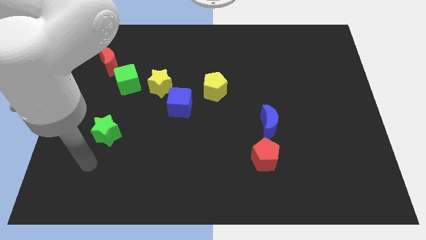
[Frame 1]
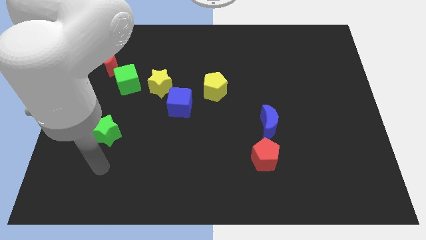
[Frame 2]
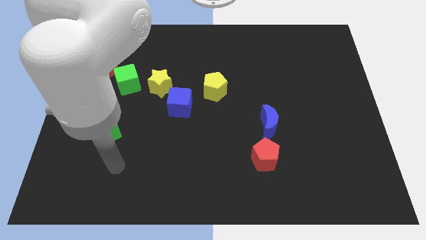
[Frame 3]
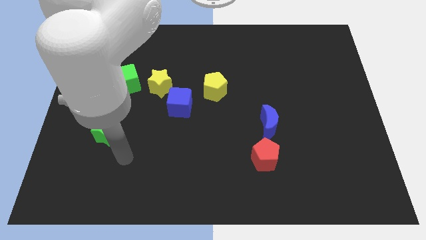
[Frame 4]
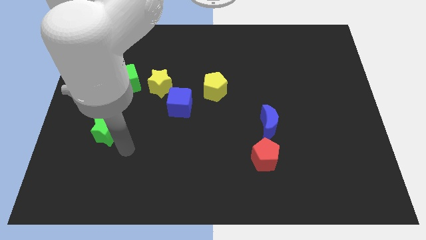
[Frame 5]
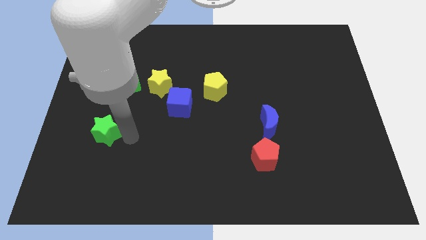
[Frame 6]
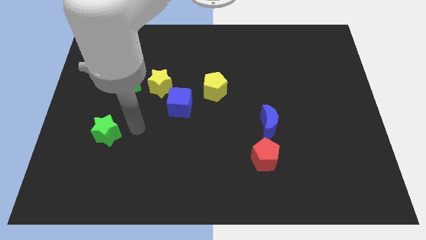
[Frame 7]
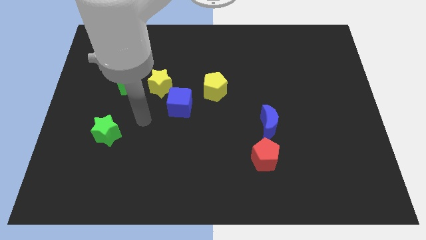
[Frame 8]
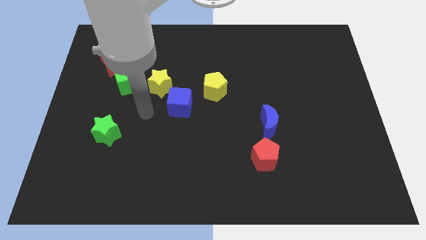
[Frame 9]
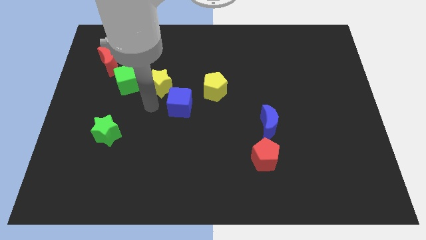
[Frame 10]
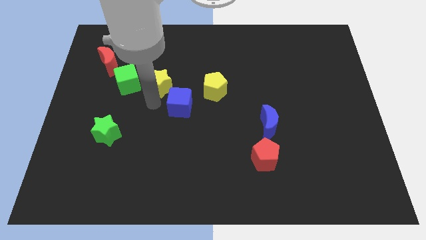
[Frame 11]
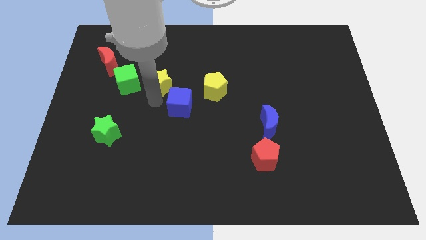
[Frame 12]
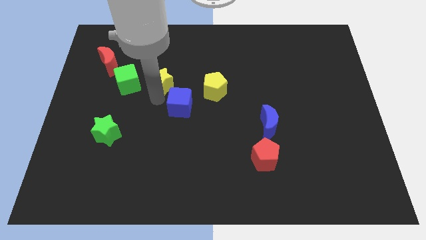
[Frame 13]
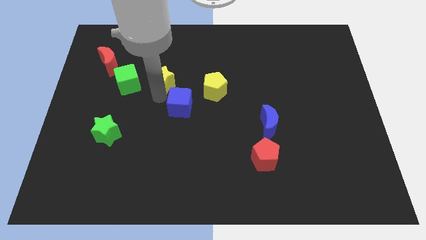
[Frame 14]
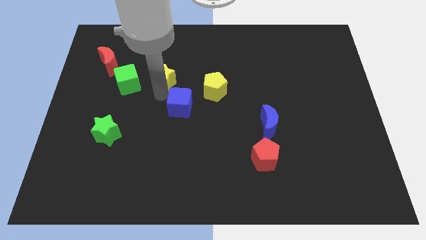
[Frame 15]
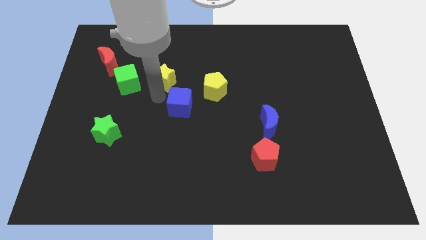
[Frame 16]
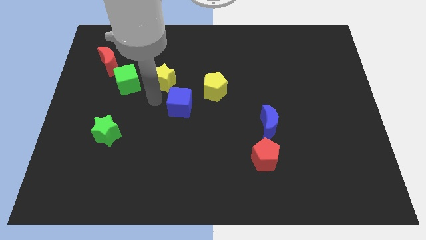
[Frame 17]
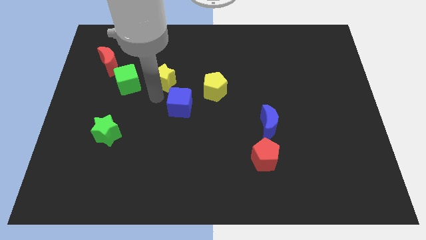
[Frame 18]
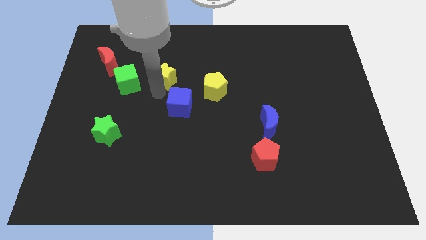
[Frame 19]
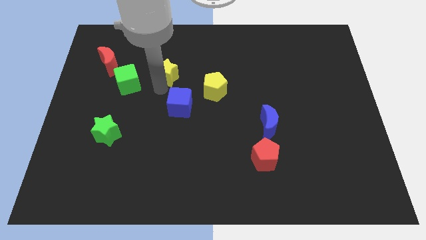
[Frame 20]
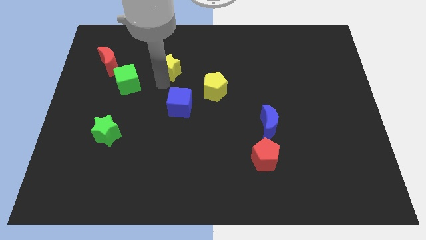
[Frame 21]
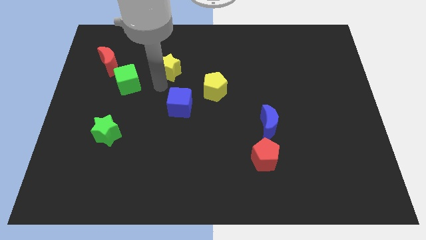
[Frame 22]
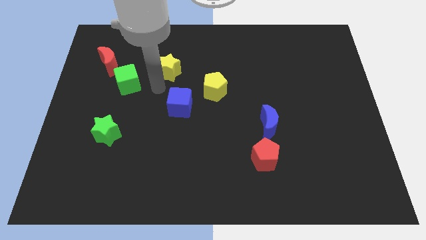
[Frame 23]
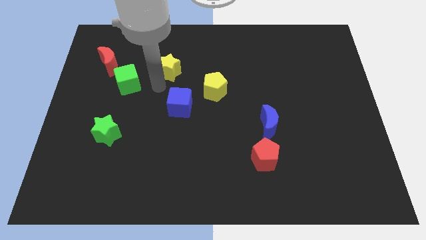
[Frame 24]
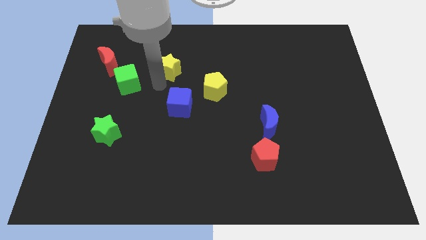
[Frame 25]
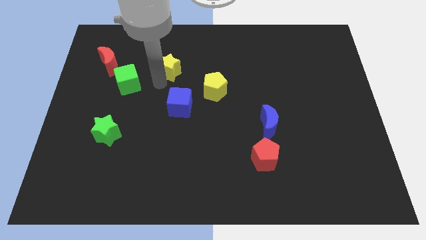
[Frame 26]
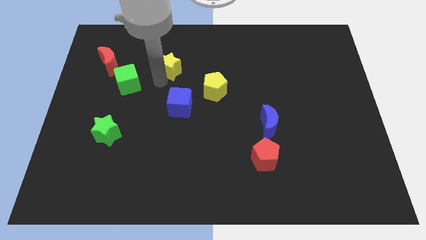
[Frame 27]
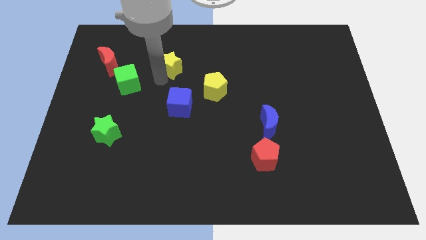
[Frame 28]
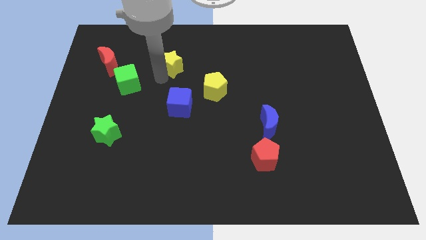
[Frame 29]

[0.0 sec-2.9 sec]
separate the yellow star from the blue cube and green cube

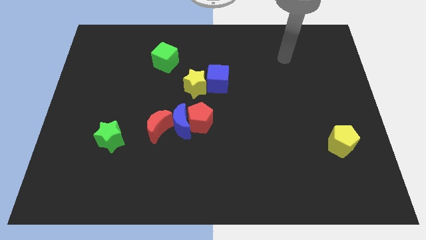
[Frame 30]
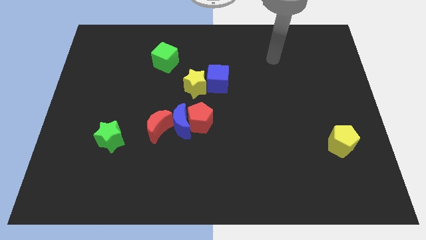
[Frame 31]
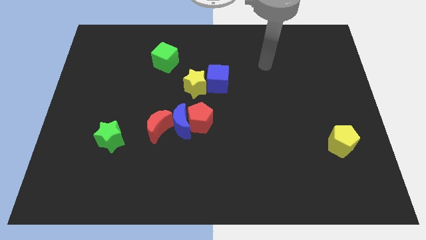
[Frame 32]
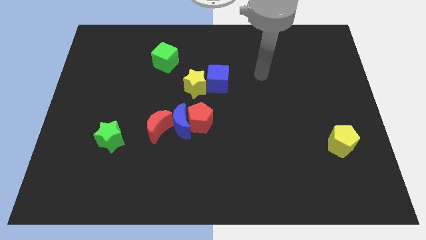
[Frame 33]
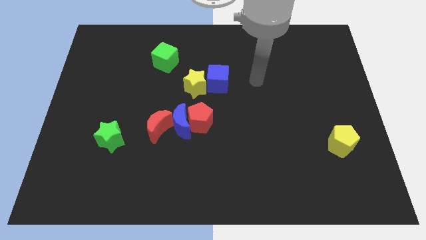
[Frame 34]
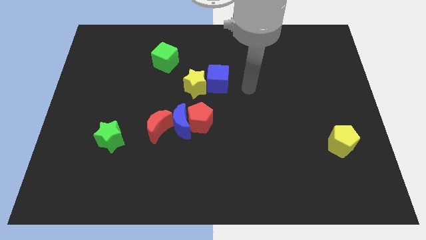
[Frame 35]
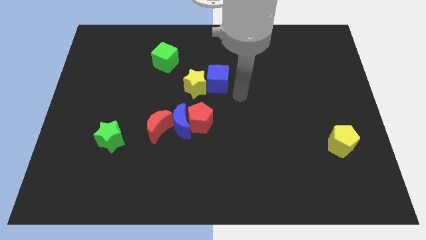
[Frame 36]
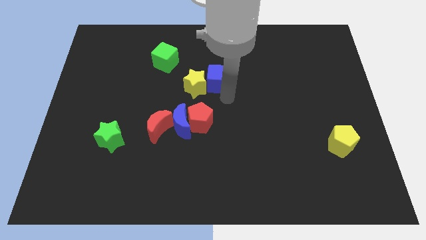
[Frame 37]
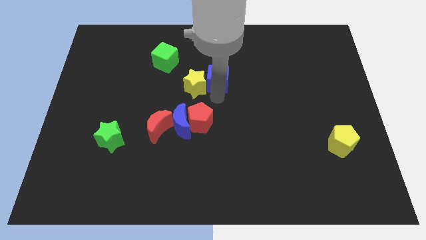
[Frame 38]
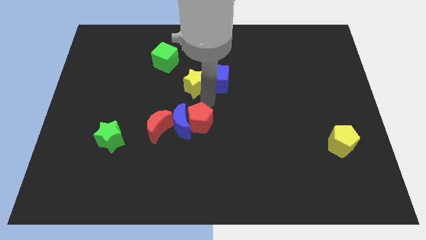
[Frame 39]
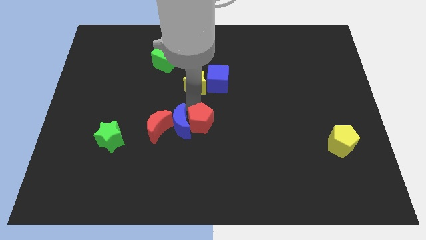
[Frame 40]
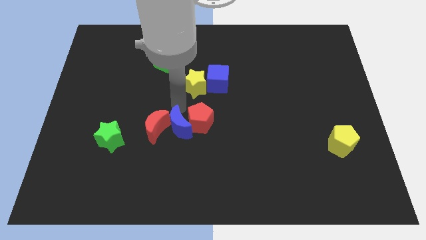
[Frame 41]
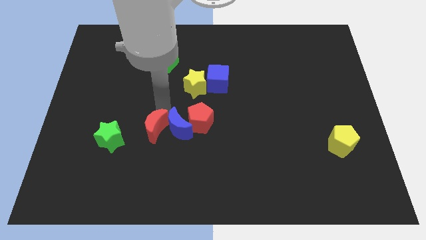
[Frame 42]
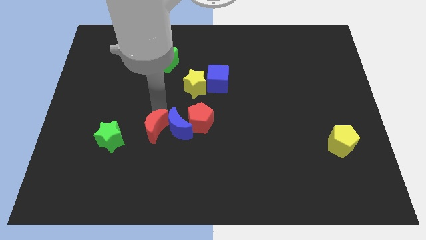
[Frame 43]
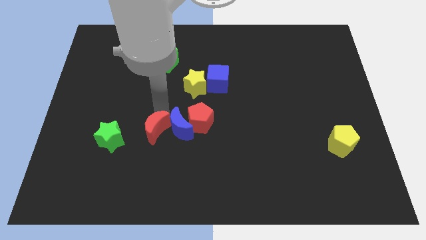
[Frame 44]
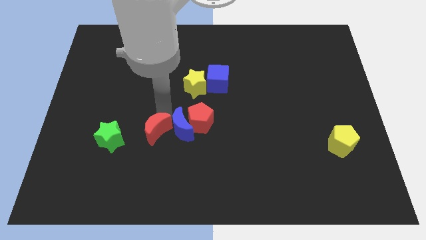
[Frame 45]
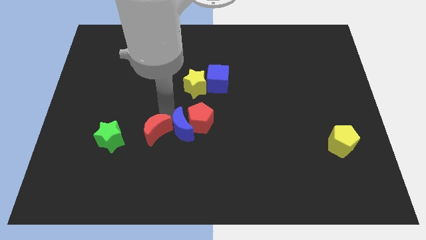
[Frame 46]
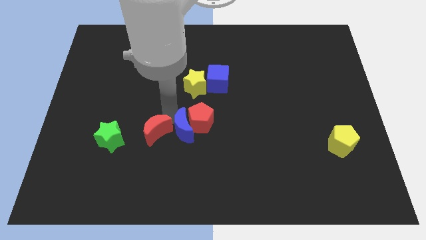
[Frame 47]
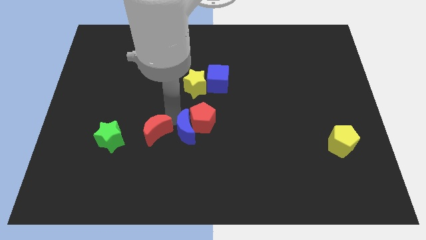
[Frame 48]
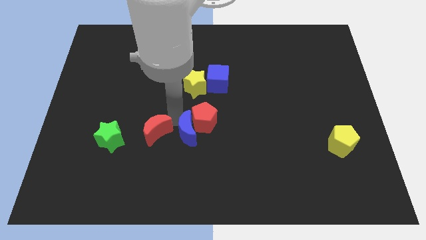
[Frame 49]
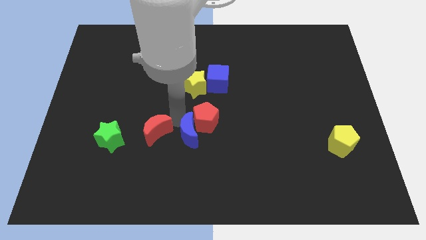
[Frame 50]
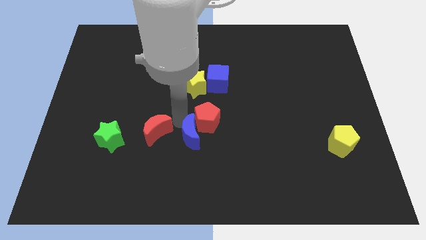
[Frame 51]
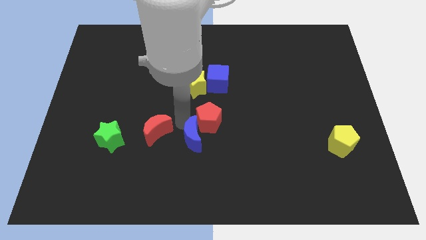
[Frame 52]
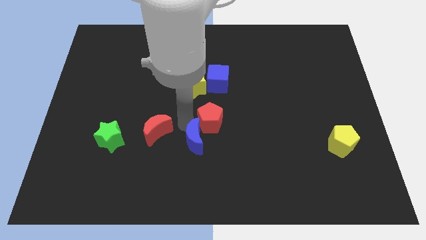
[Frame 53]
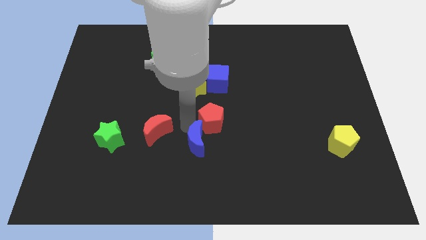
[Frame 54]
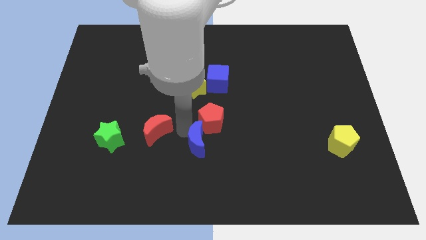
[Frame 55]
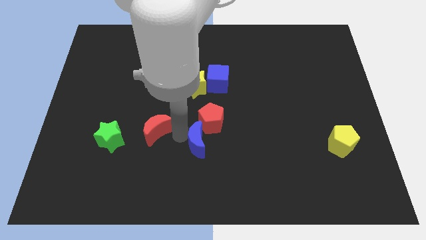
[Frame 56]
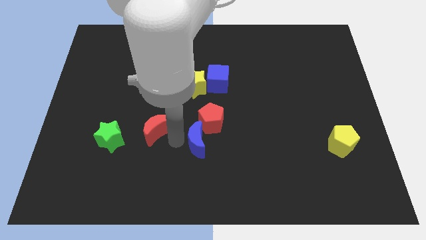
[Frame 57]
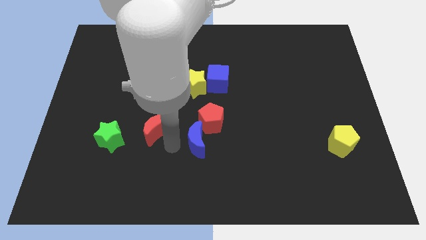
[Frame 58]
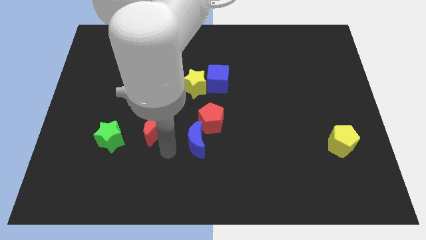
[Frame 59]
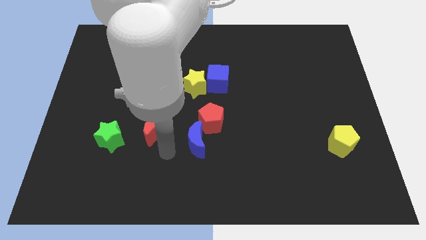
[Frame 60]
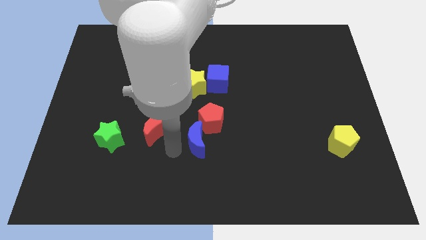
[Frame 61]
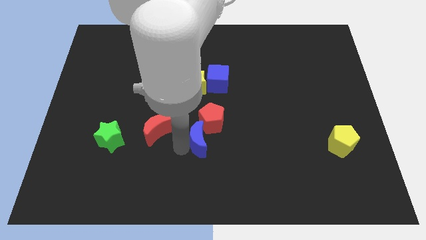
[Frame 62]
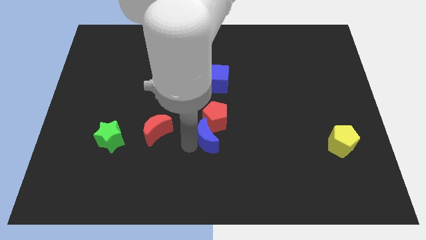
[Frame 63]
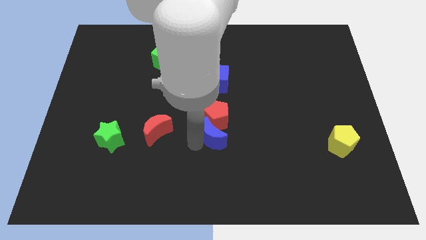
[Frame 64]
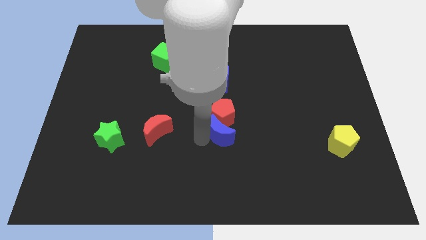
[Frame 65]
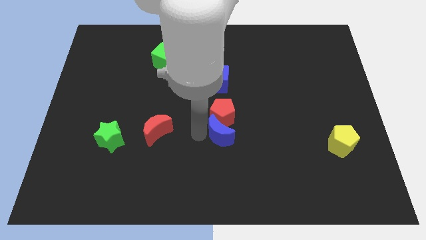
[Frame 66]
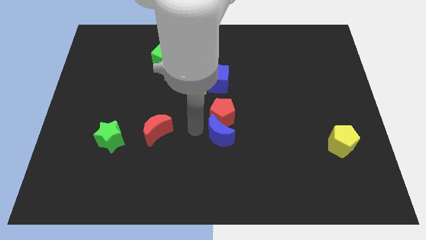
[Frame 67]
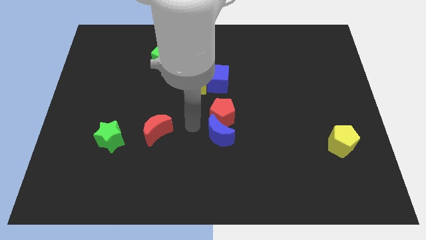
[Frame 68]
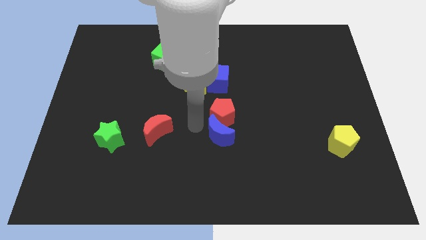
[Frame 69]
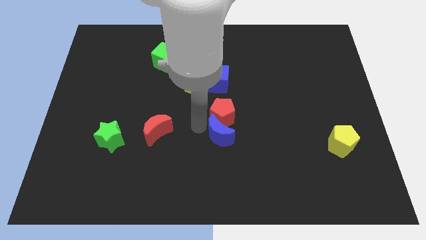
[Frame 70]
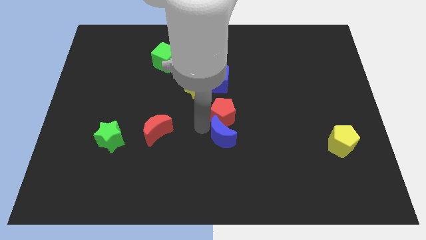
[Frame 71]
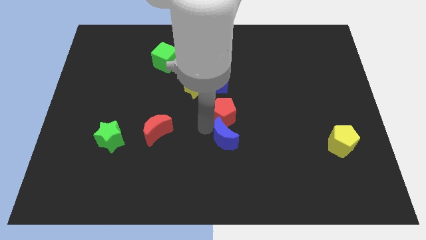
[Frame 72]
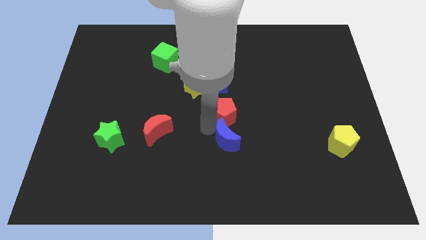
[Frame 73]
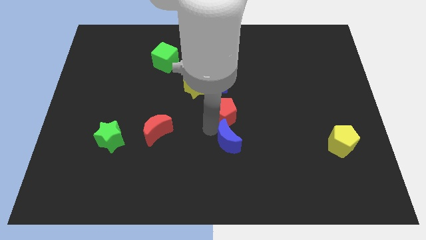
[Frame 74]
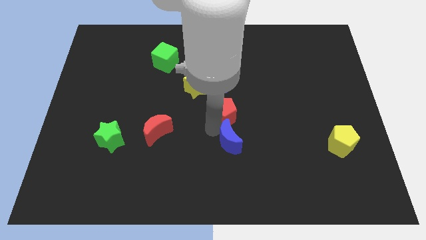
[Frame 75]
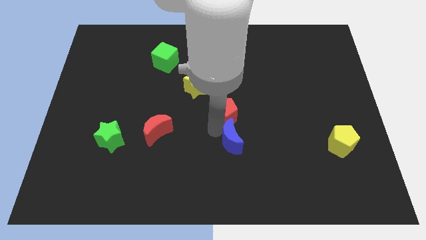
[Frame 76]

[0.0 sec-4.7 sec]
pull the blue moon apart from the red pentagon and red moon

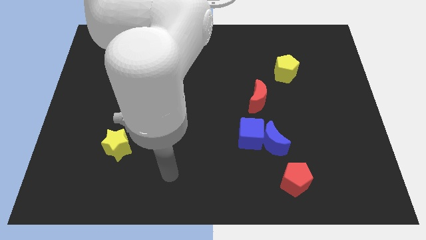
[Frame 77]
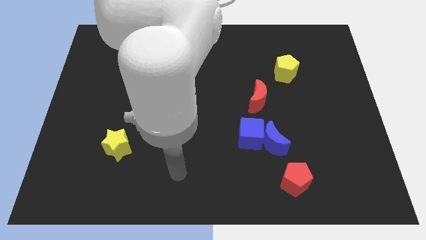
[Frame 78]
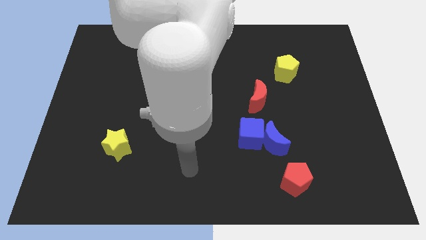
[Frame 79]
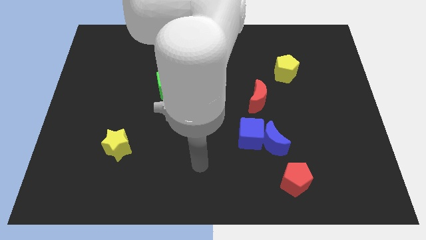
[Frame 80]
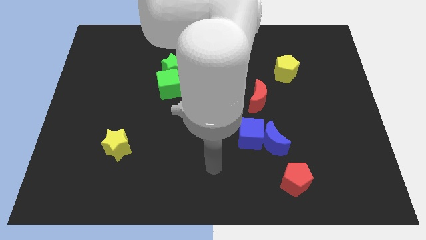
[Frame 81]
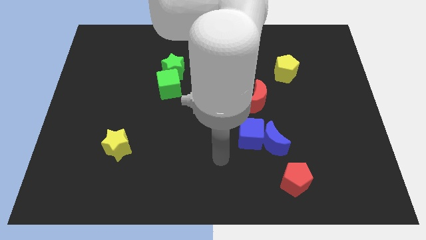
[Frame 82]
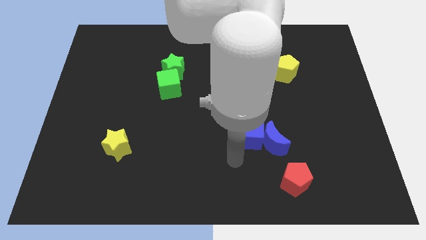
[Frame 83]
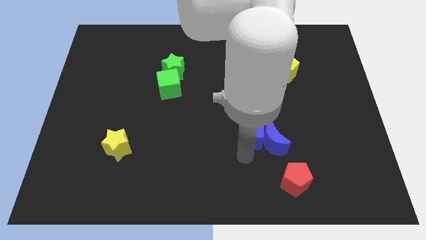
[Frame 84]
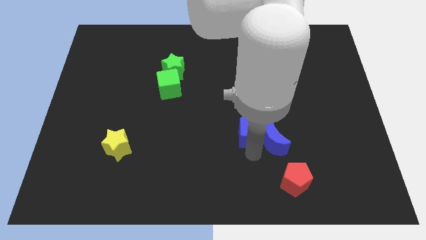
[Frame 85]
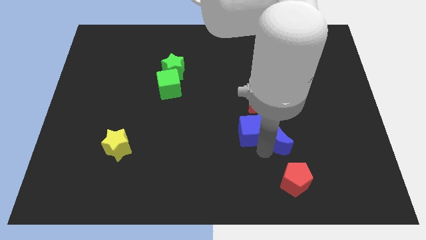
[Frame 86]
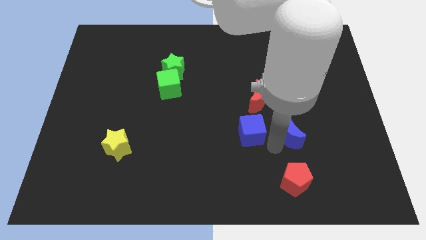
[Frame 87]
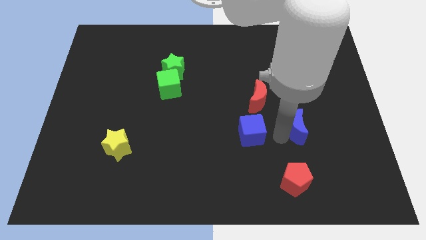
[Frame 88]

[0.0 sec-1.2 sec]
pull the blue cube apart from the blue moon

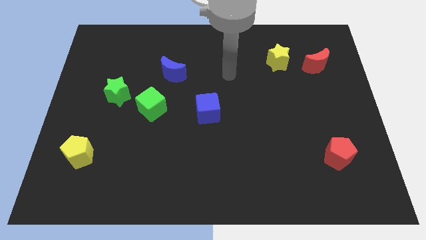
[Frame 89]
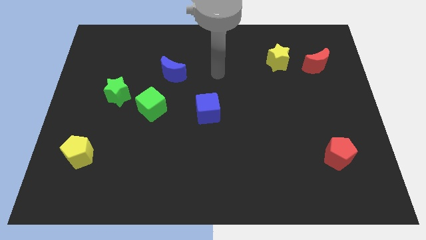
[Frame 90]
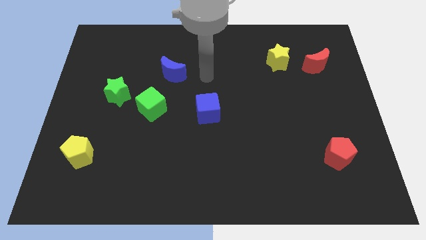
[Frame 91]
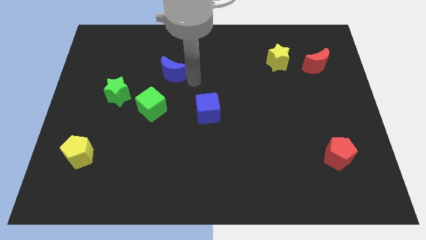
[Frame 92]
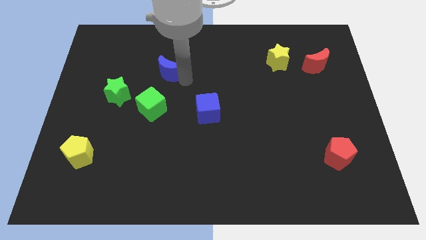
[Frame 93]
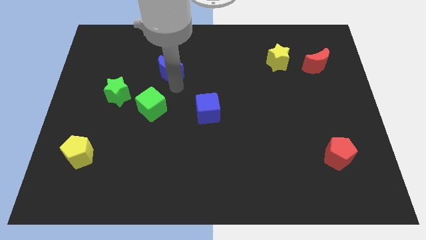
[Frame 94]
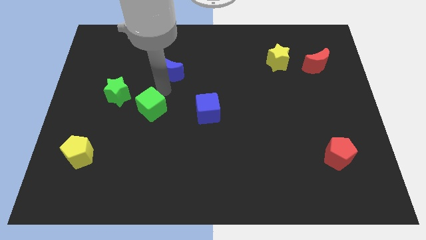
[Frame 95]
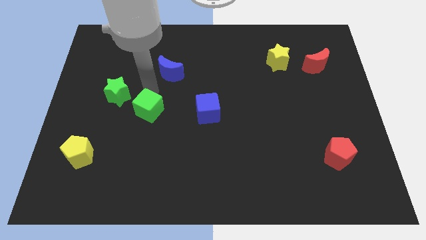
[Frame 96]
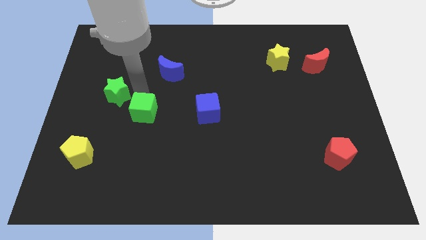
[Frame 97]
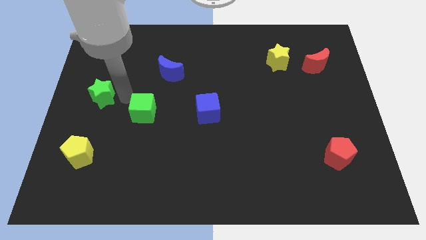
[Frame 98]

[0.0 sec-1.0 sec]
separate the green cube from the green star
